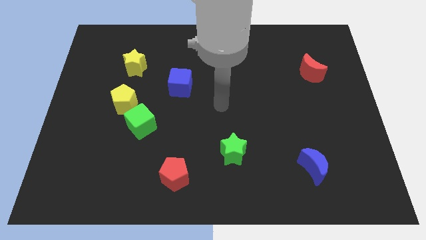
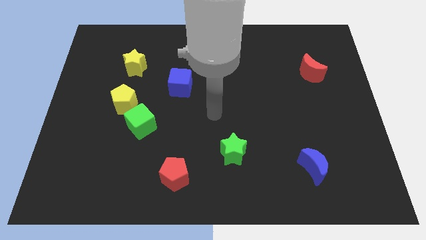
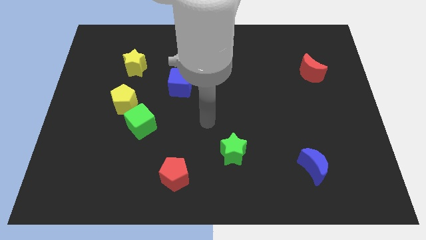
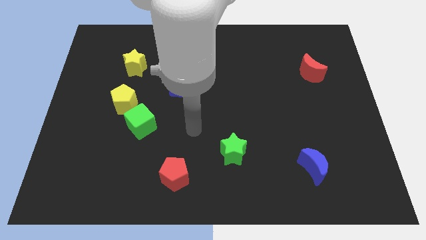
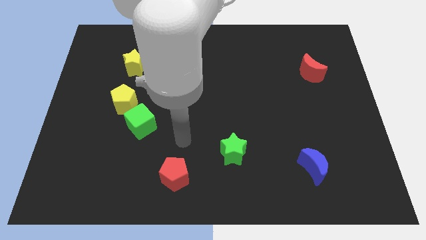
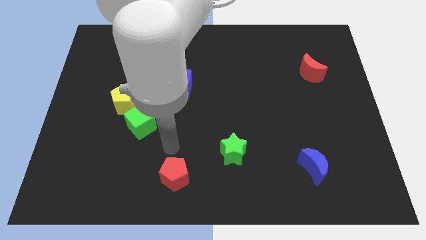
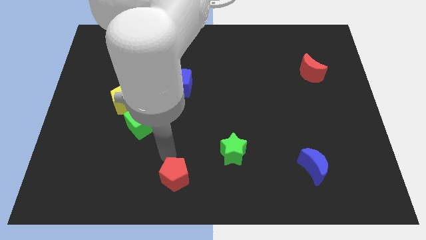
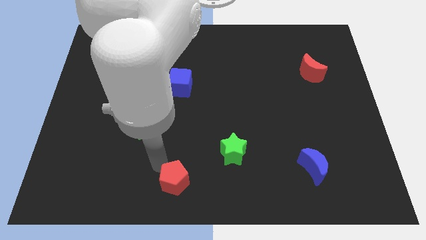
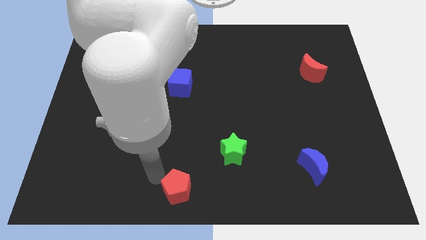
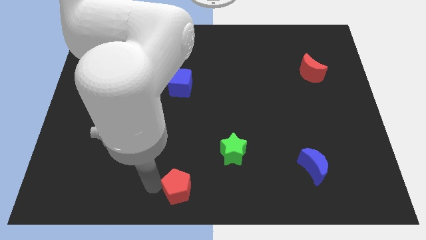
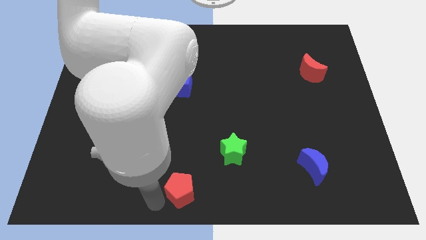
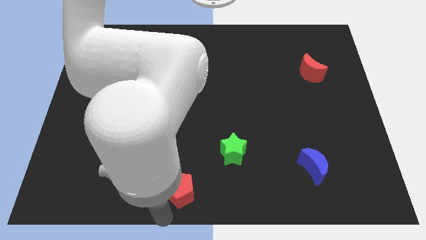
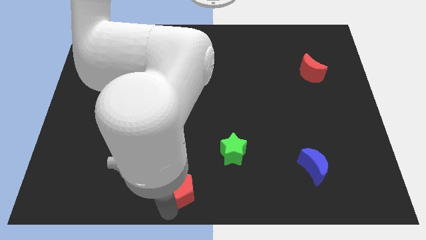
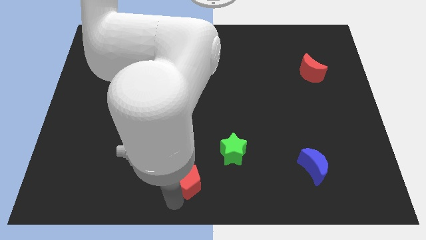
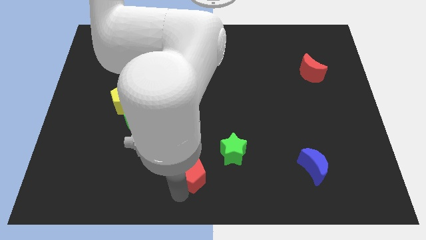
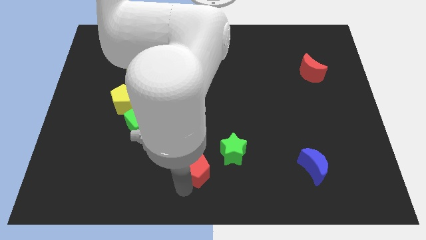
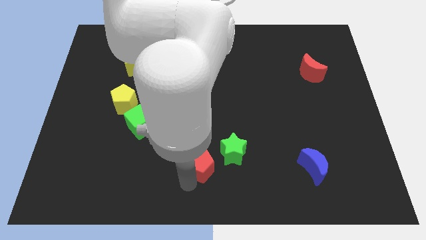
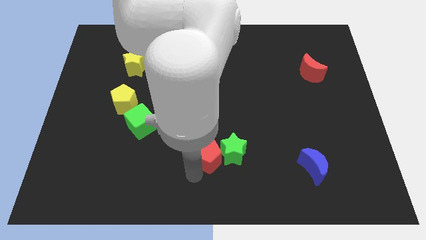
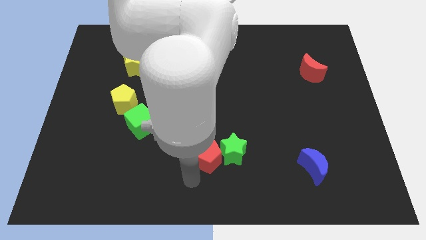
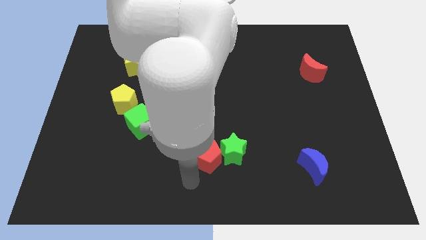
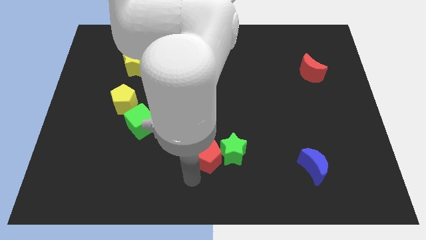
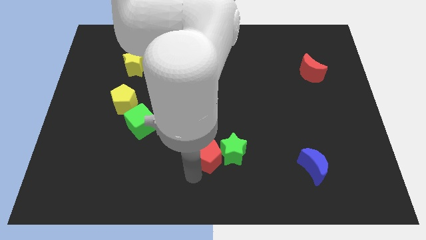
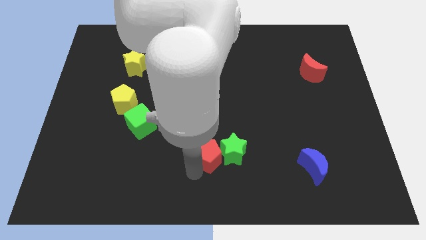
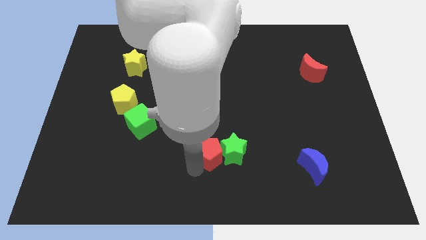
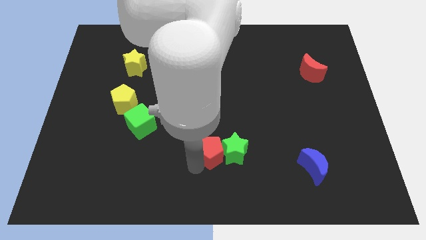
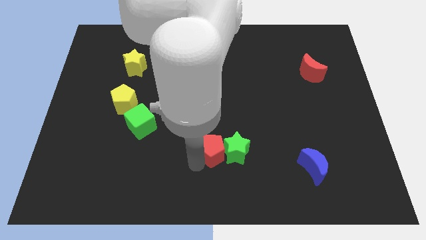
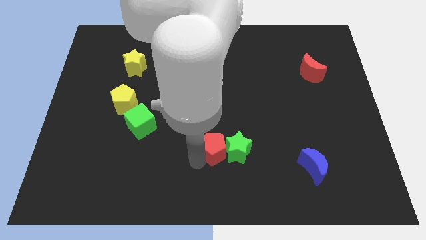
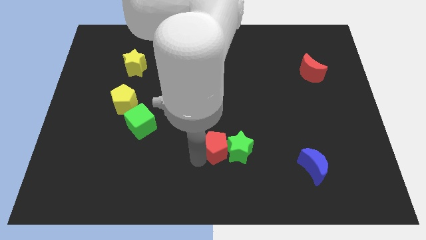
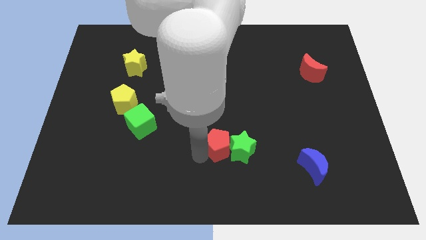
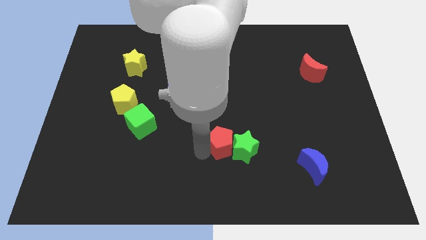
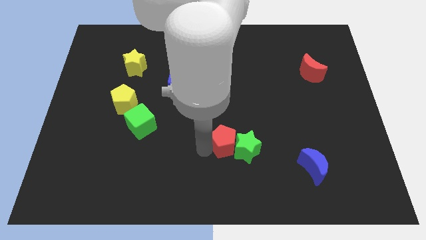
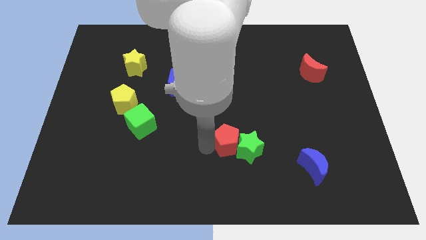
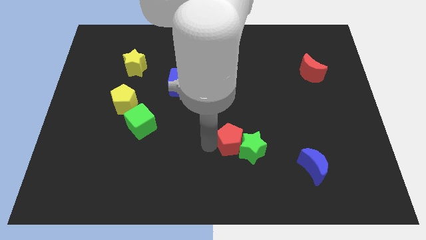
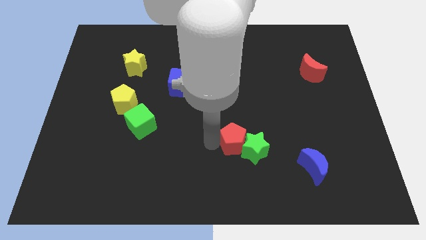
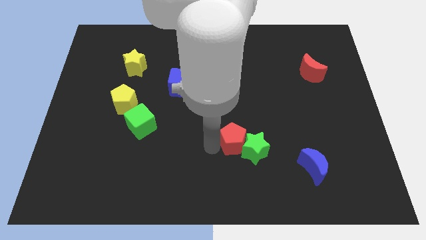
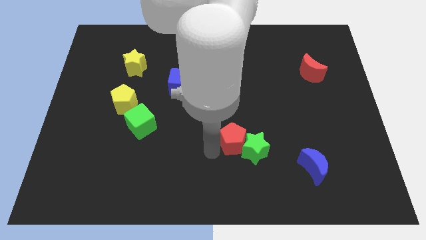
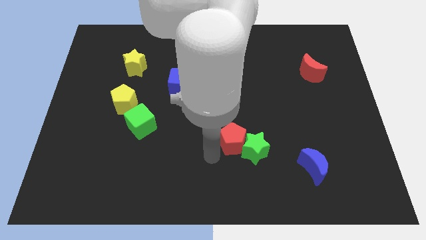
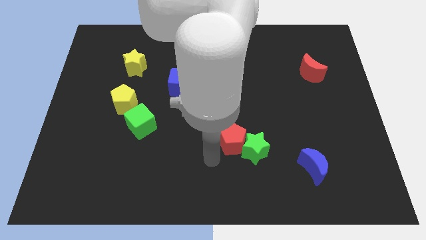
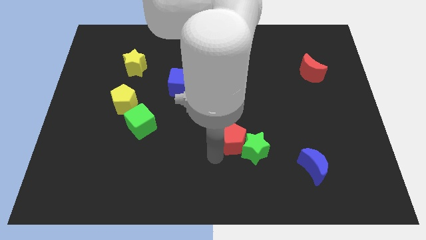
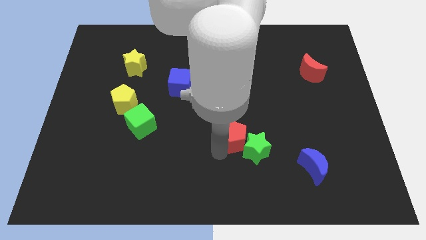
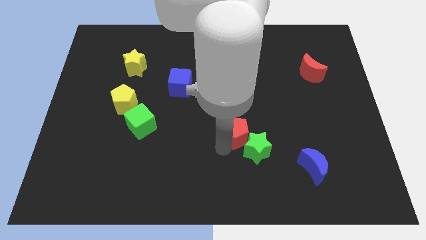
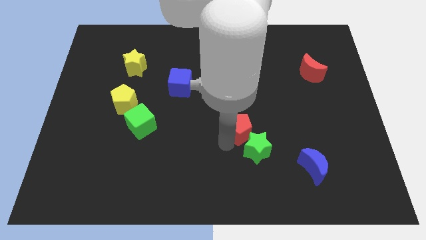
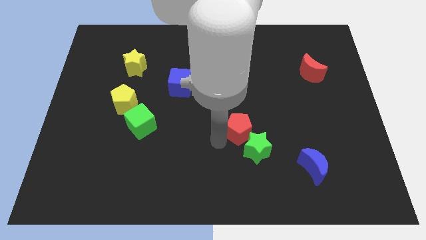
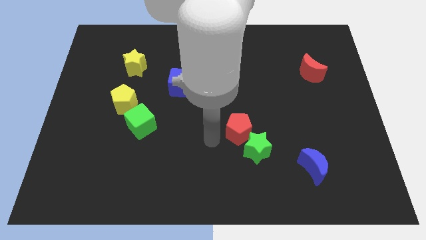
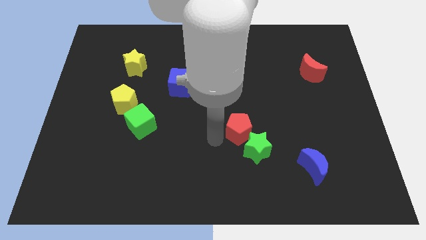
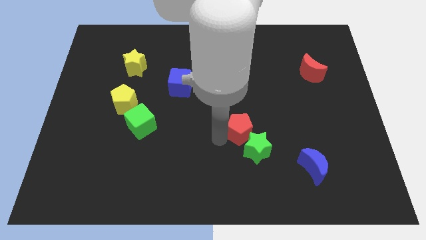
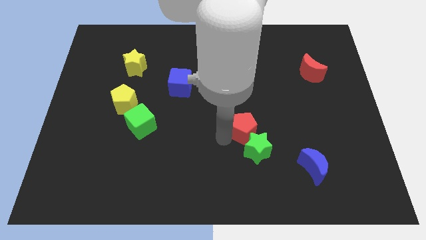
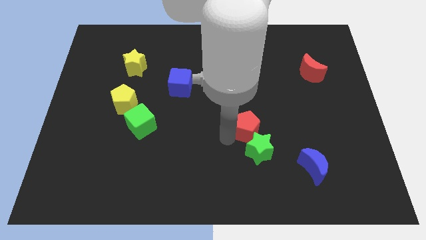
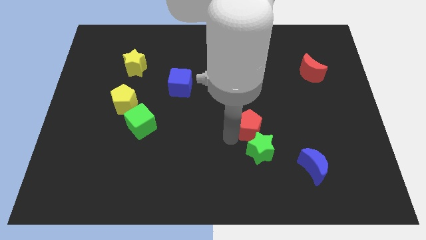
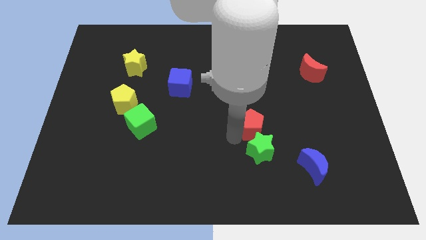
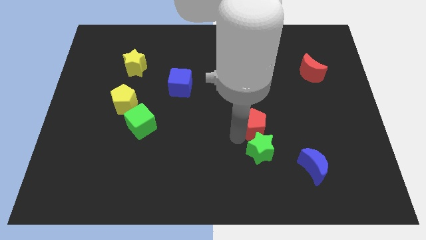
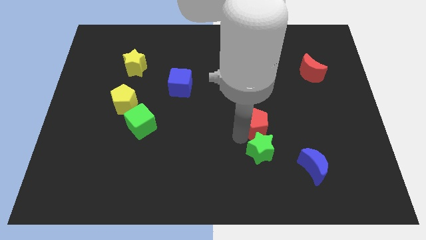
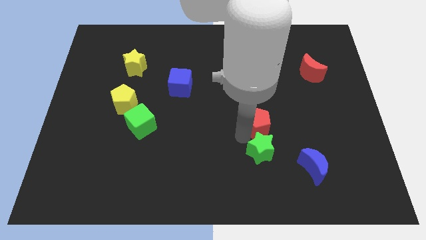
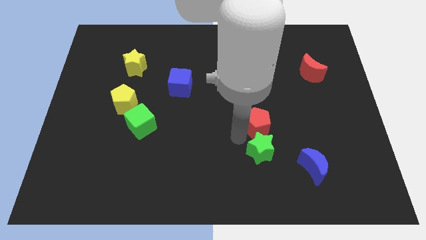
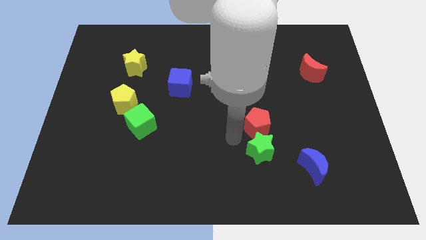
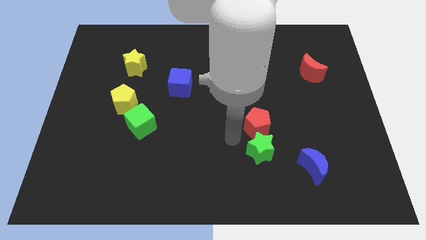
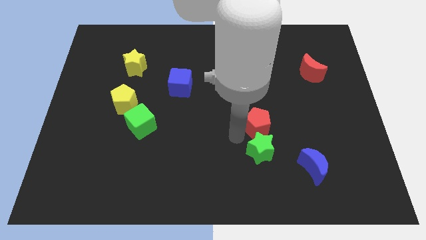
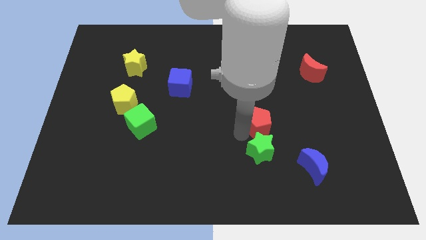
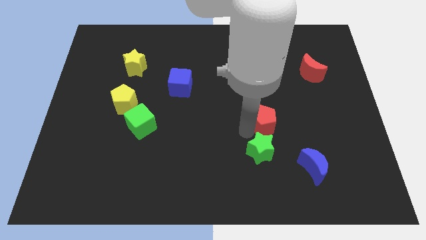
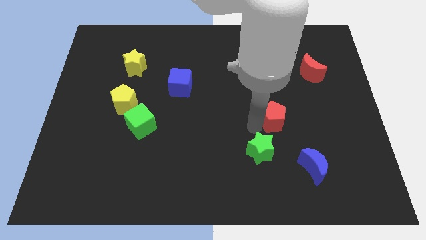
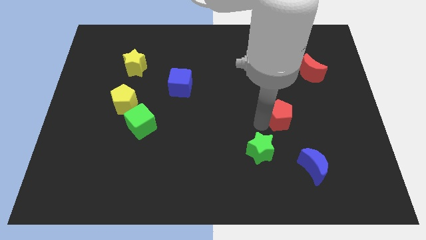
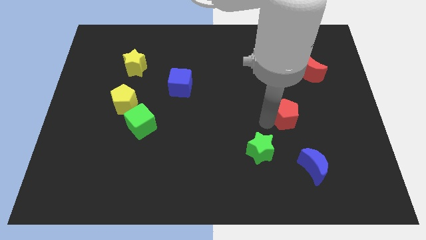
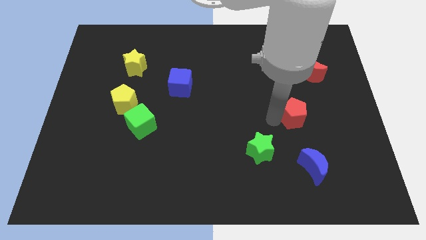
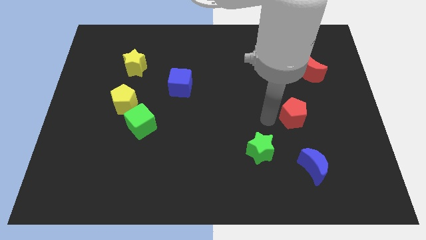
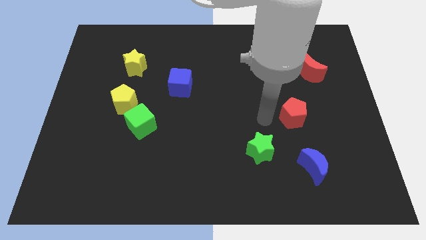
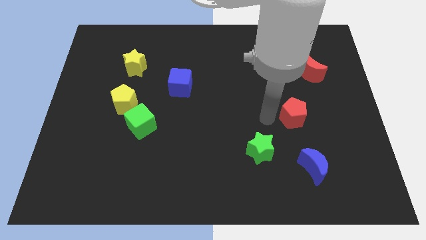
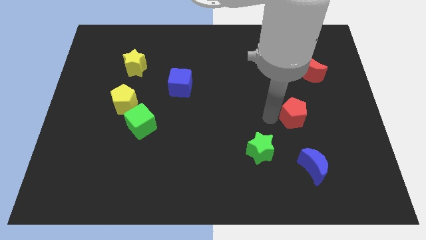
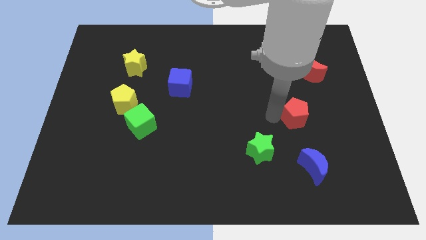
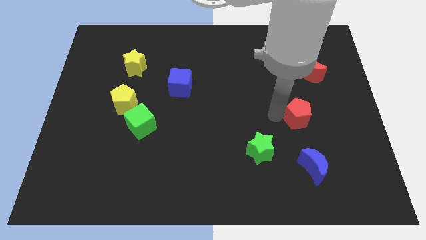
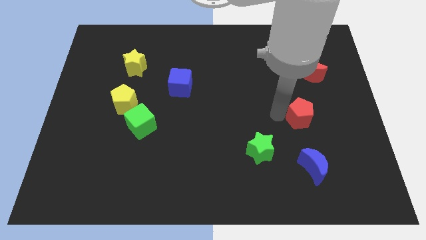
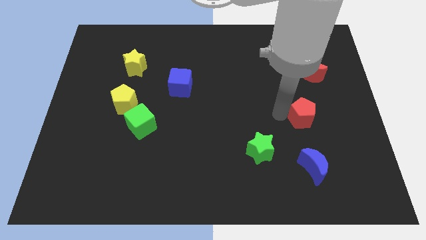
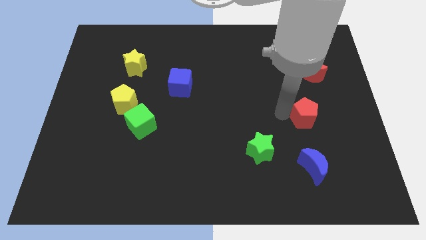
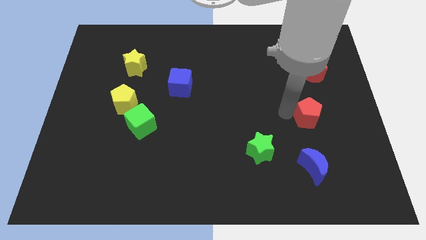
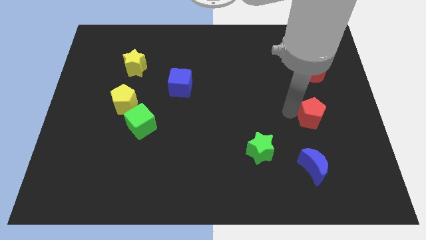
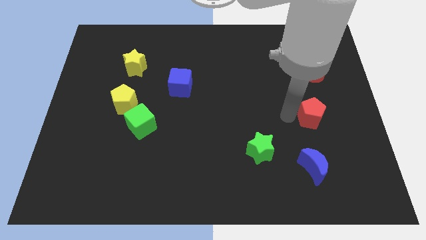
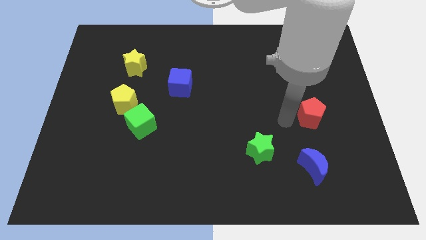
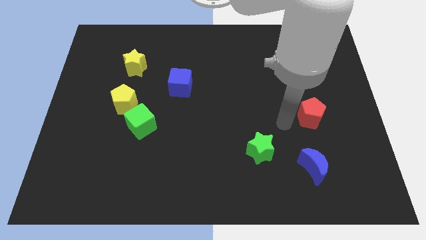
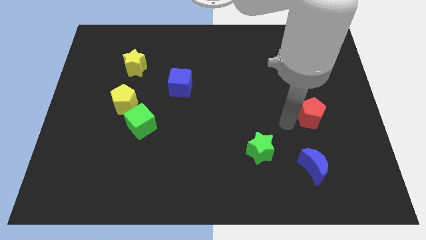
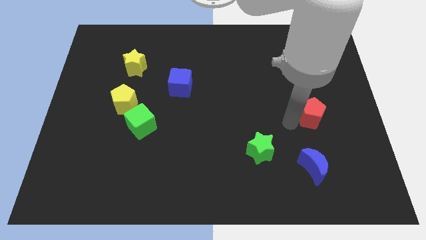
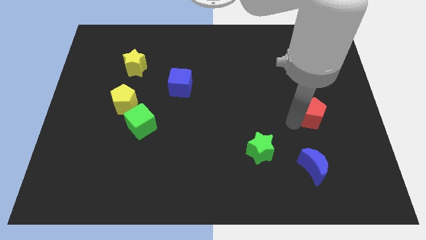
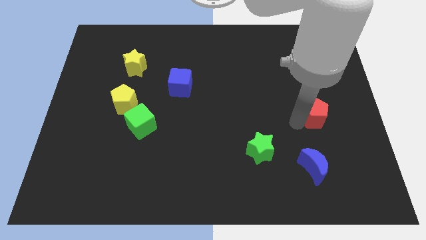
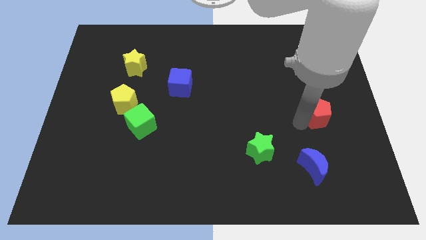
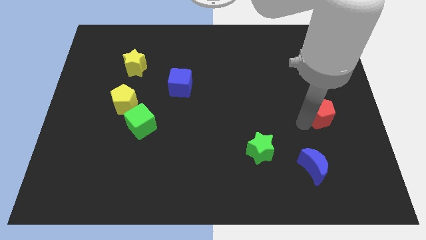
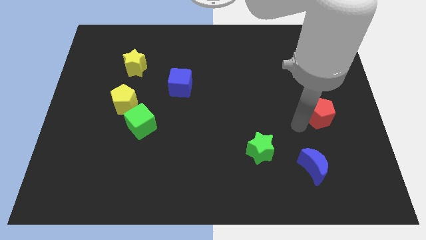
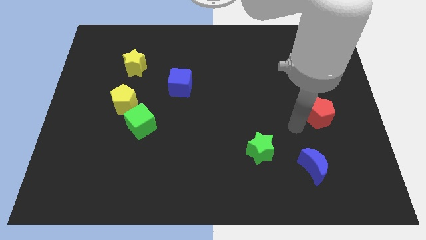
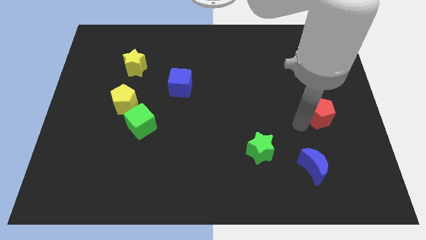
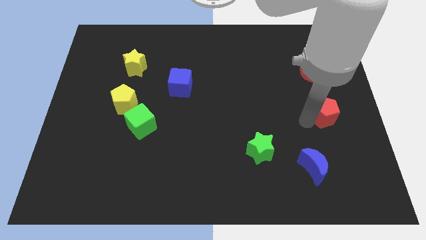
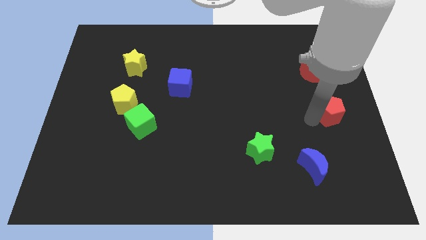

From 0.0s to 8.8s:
slide the red pentagon to the center right
